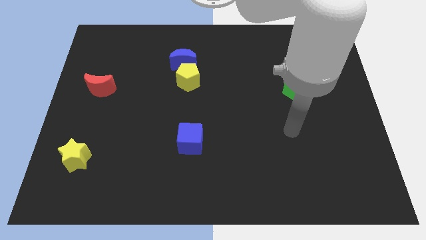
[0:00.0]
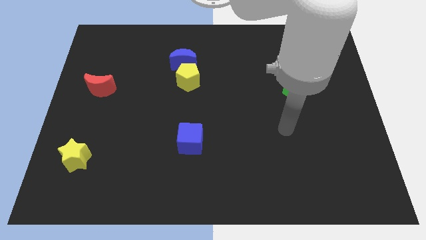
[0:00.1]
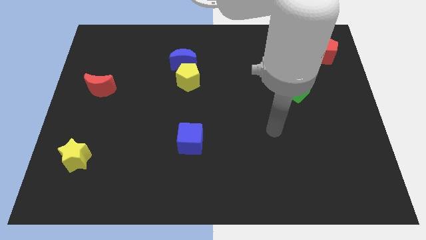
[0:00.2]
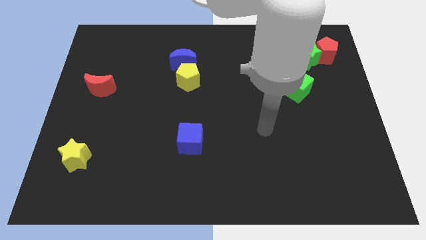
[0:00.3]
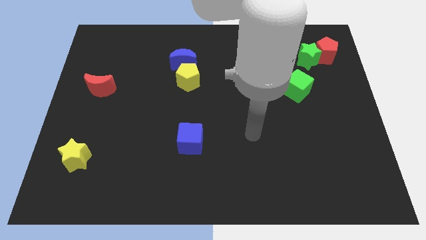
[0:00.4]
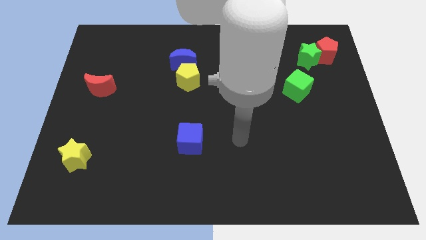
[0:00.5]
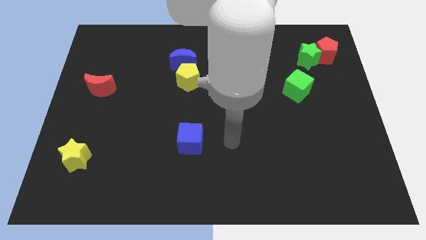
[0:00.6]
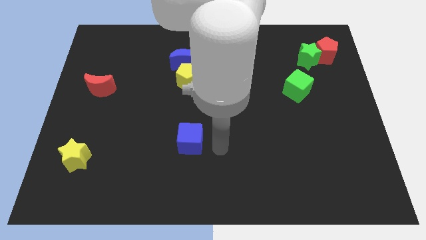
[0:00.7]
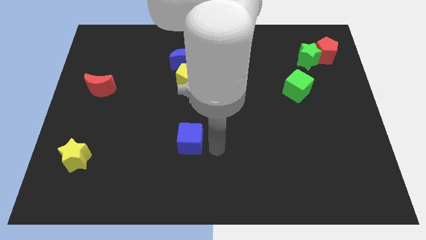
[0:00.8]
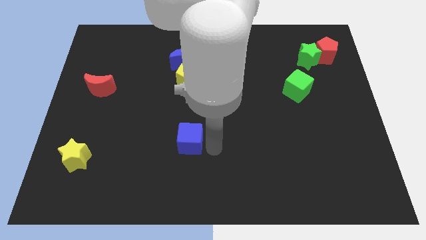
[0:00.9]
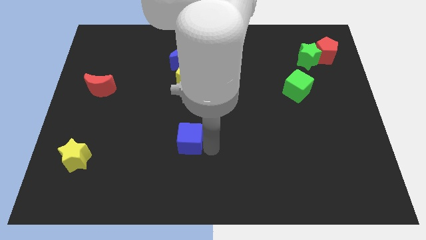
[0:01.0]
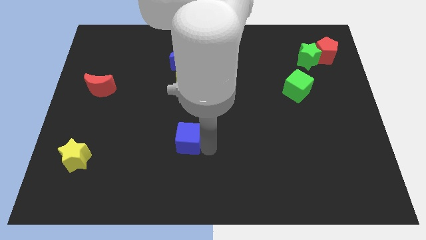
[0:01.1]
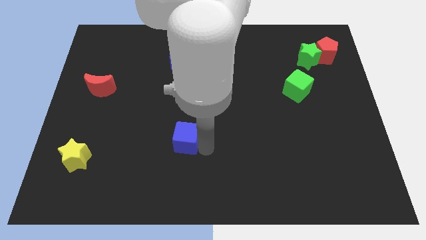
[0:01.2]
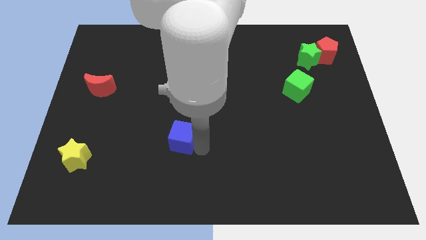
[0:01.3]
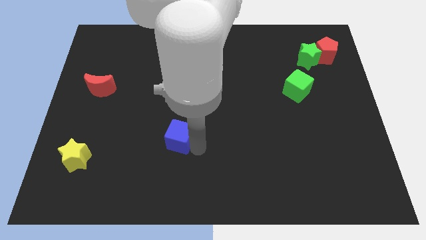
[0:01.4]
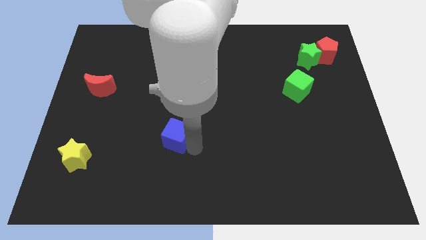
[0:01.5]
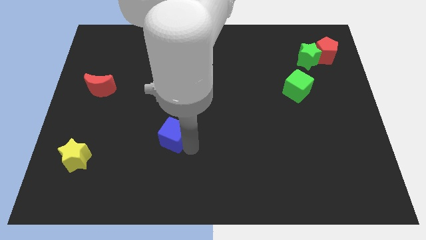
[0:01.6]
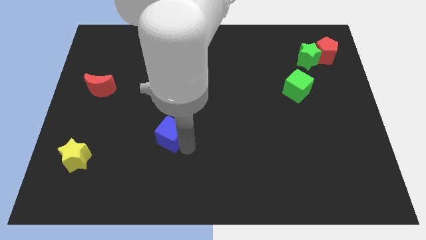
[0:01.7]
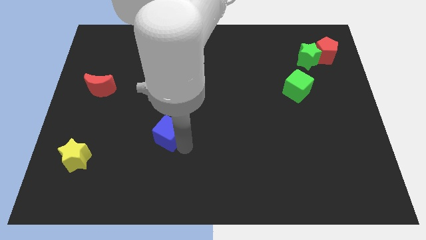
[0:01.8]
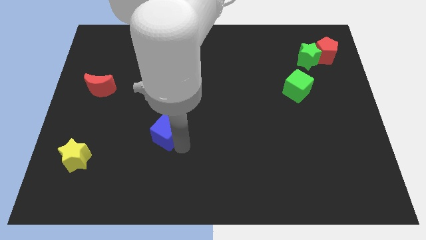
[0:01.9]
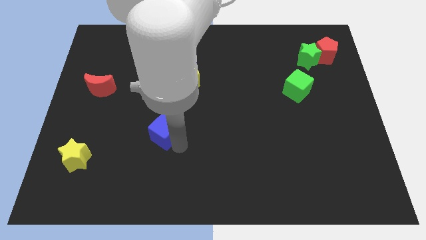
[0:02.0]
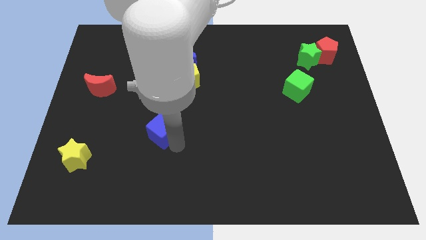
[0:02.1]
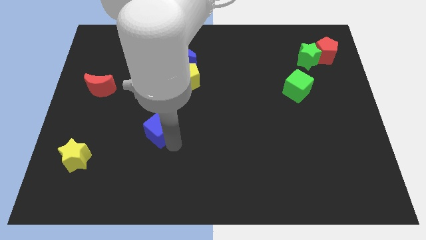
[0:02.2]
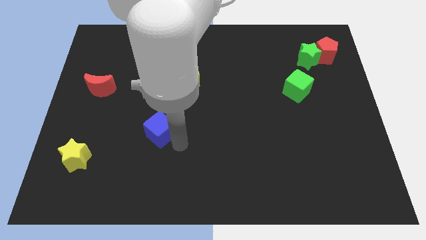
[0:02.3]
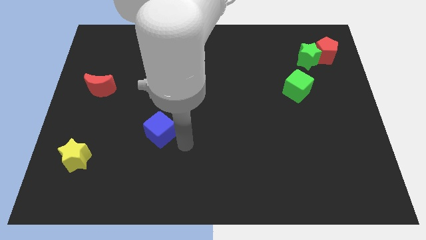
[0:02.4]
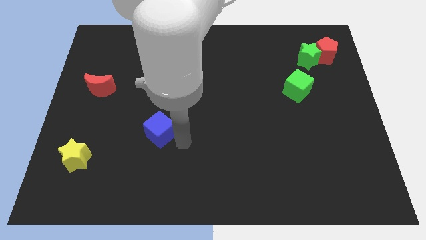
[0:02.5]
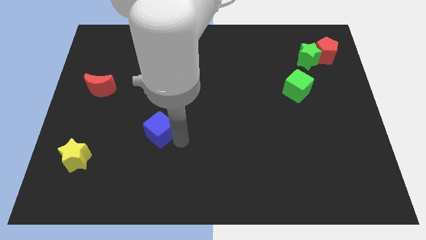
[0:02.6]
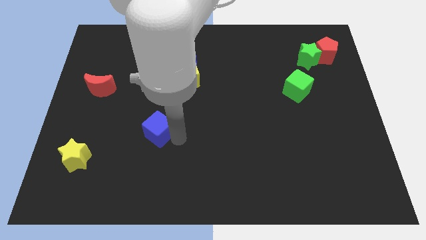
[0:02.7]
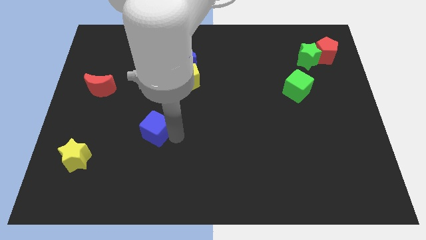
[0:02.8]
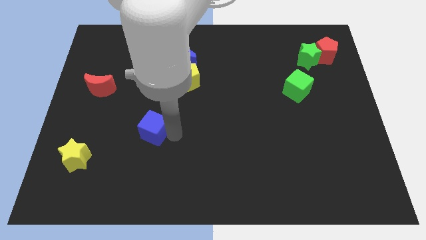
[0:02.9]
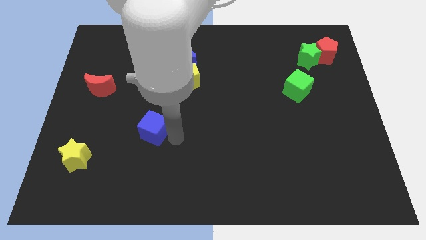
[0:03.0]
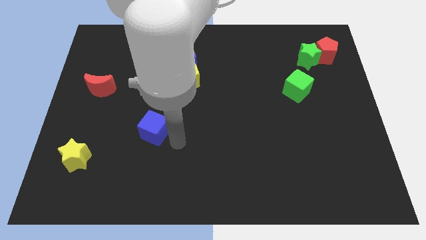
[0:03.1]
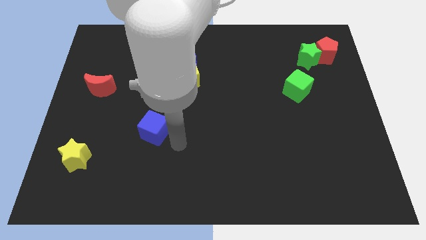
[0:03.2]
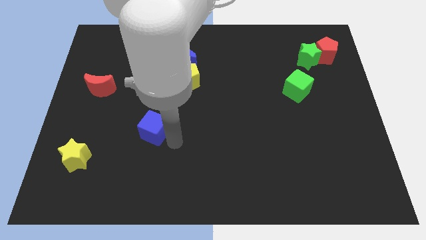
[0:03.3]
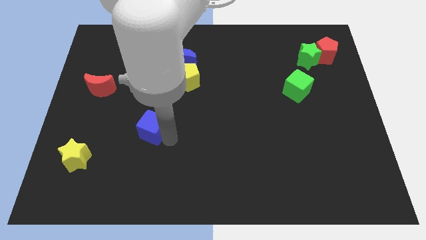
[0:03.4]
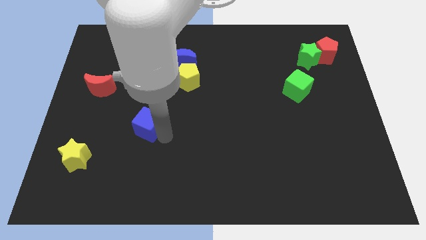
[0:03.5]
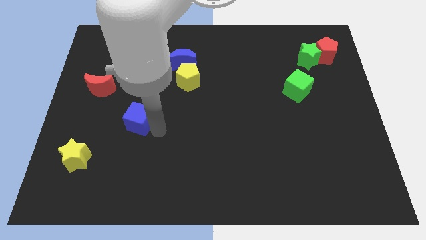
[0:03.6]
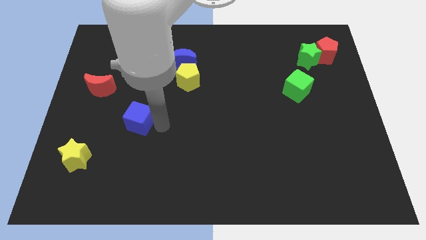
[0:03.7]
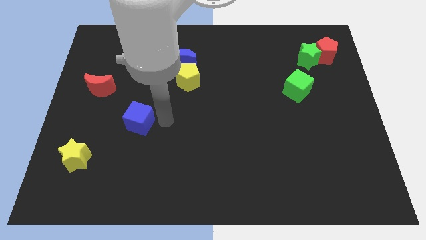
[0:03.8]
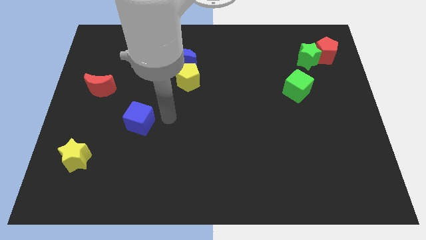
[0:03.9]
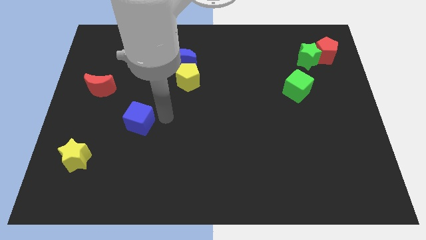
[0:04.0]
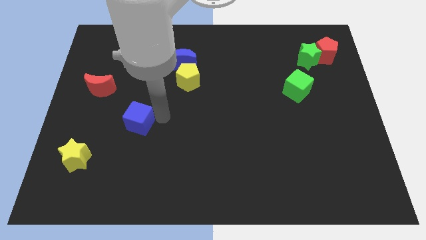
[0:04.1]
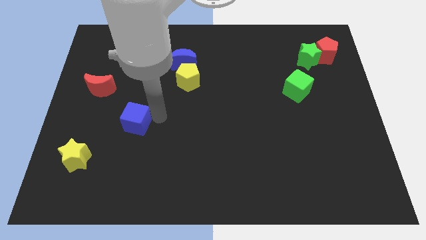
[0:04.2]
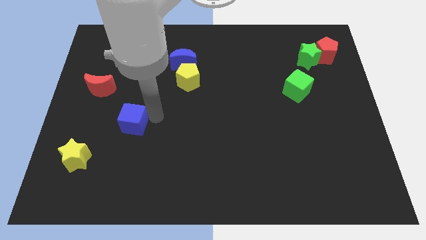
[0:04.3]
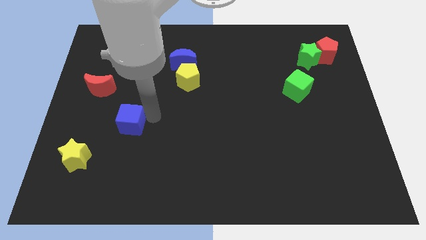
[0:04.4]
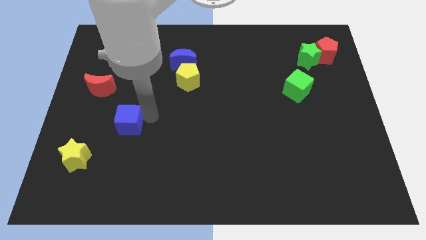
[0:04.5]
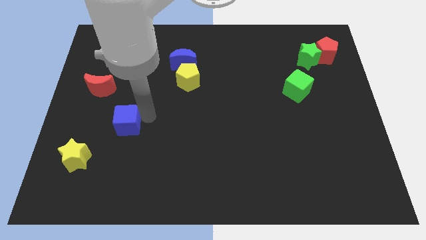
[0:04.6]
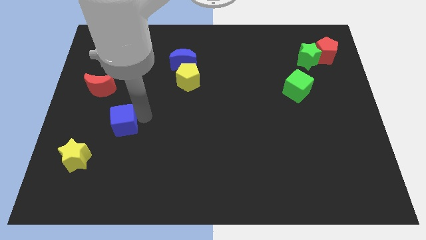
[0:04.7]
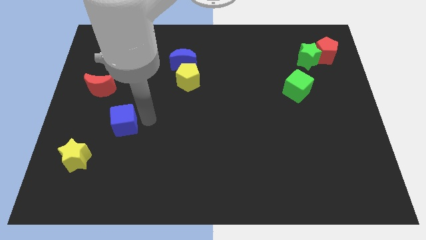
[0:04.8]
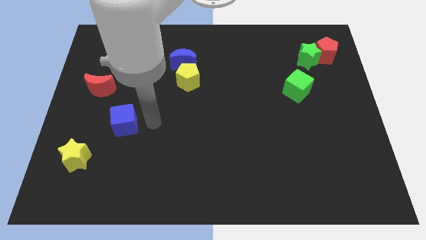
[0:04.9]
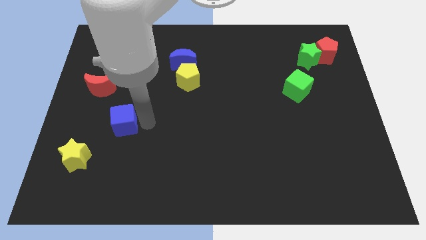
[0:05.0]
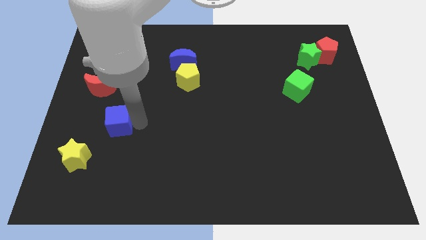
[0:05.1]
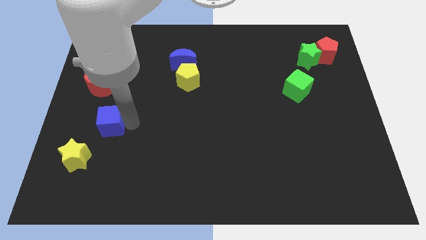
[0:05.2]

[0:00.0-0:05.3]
move the blue cube below the red moon

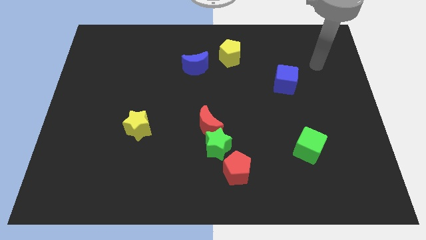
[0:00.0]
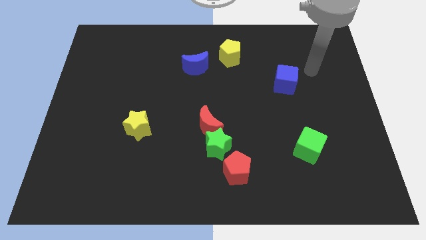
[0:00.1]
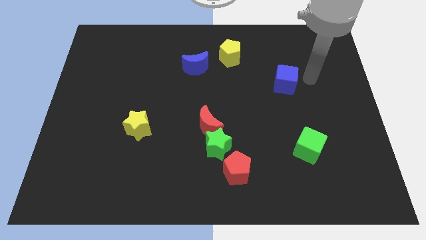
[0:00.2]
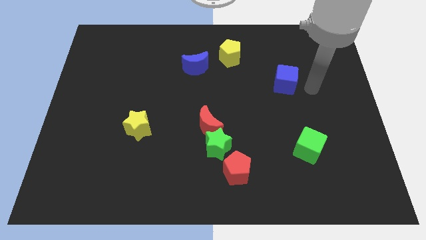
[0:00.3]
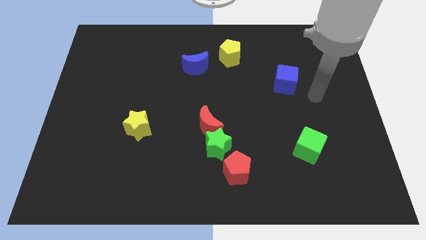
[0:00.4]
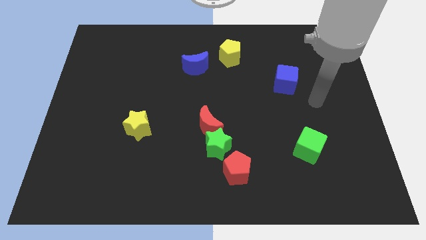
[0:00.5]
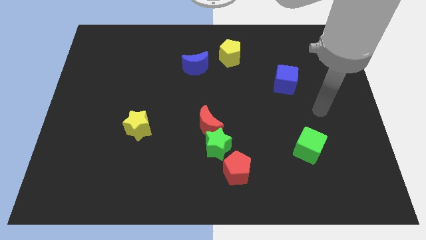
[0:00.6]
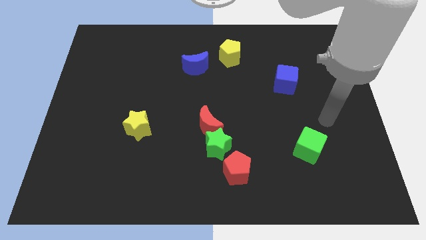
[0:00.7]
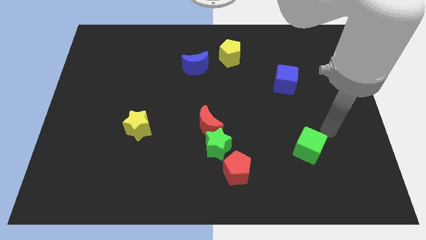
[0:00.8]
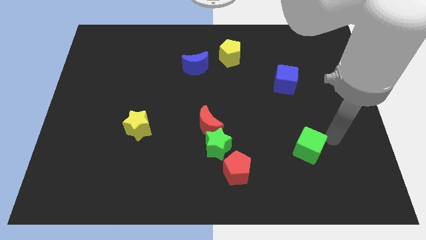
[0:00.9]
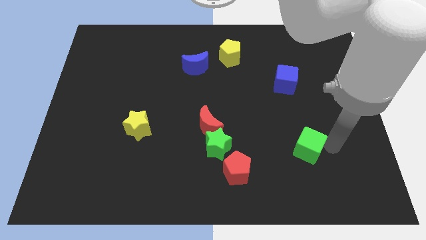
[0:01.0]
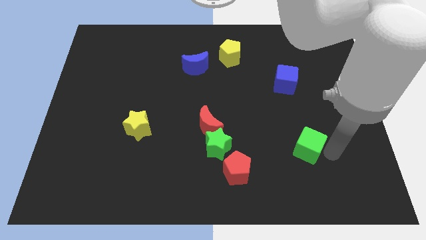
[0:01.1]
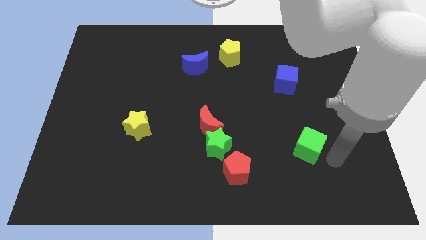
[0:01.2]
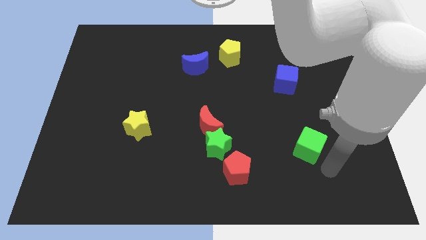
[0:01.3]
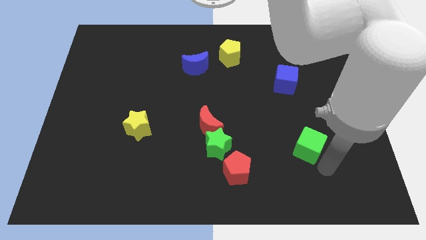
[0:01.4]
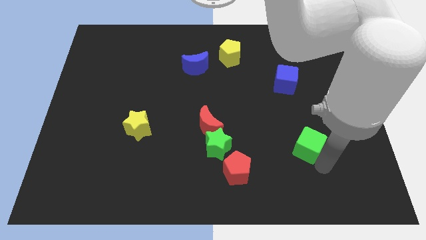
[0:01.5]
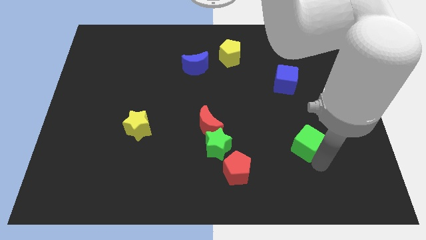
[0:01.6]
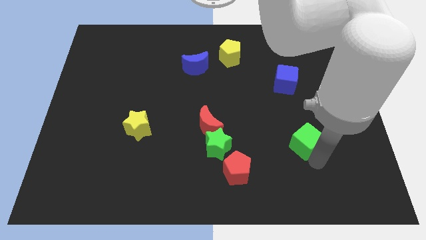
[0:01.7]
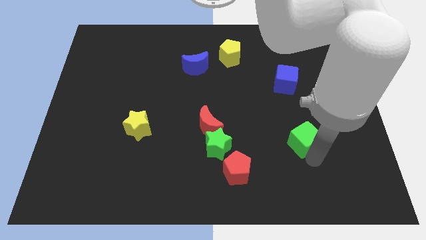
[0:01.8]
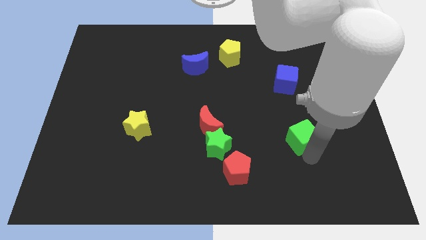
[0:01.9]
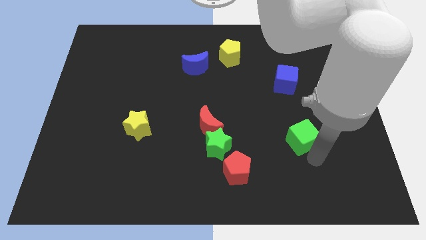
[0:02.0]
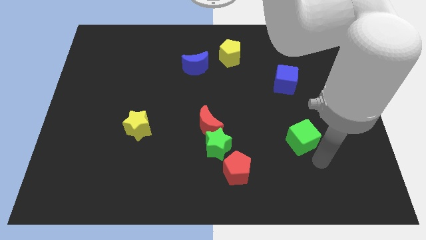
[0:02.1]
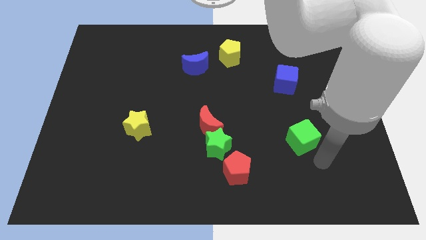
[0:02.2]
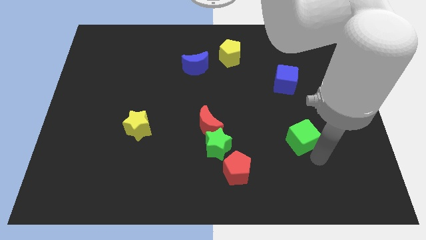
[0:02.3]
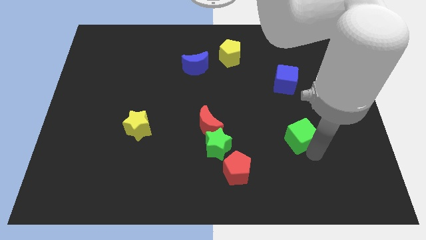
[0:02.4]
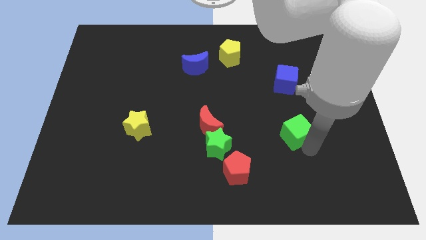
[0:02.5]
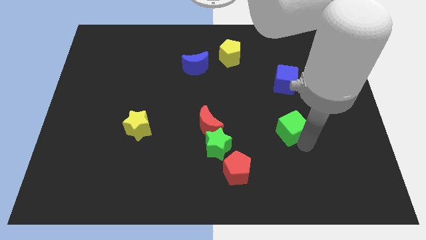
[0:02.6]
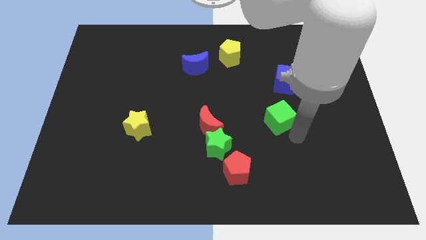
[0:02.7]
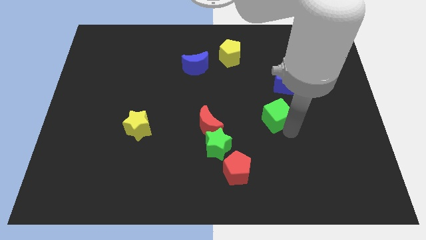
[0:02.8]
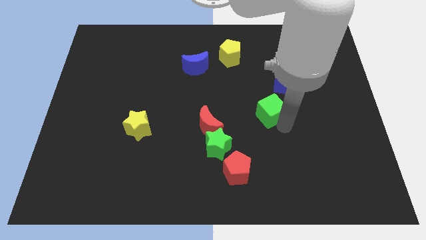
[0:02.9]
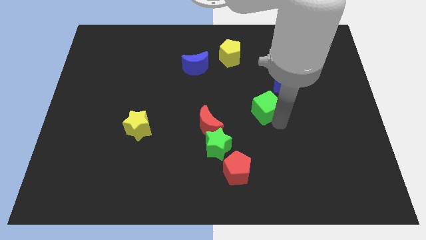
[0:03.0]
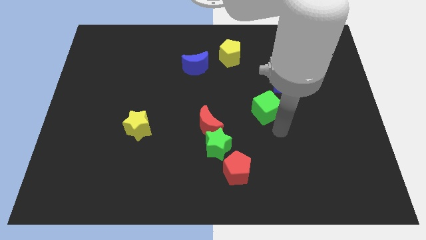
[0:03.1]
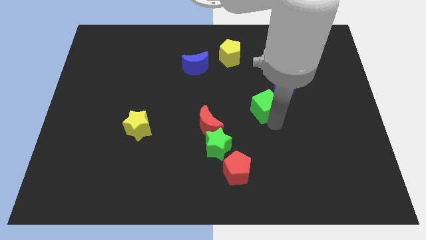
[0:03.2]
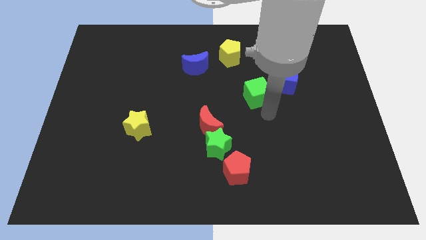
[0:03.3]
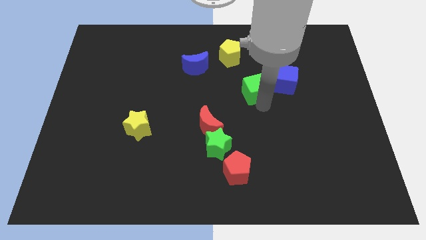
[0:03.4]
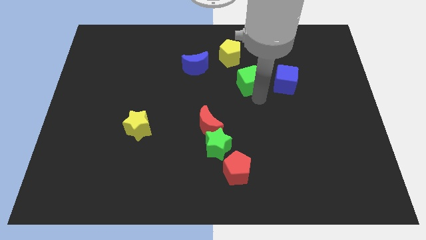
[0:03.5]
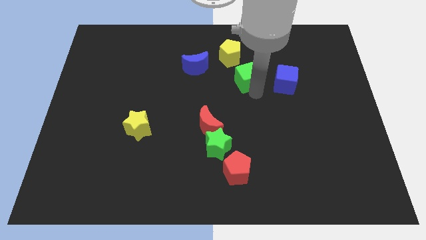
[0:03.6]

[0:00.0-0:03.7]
put the green cube to the right side of the blue moon
